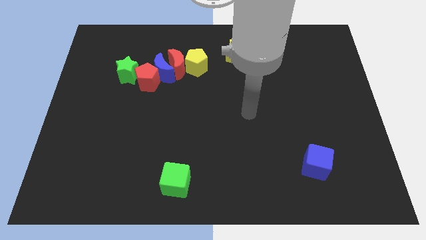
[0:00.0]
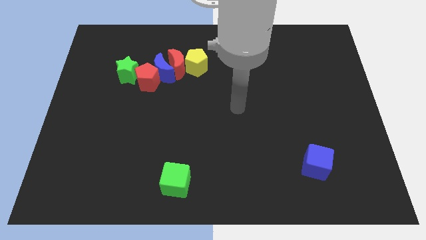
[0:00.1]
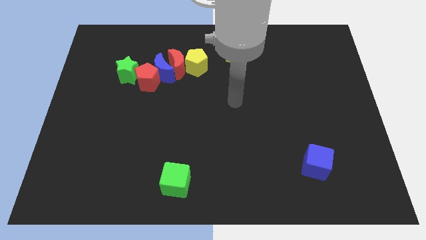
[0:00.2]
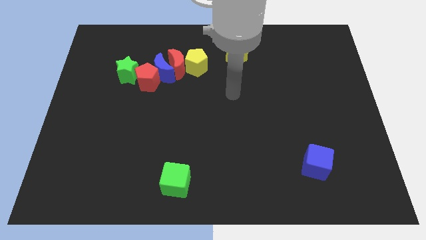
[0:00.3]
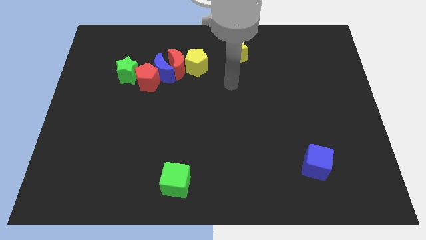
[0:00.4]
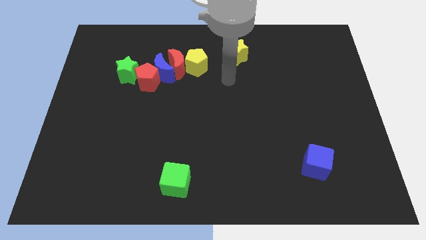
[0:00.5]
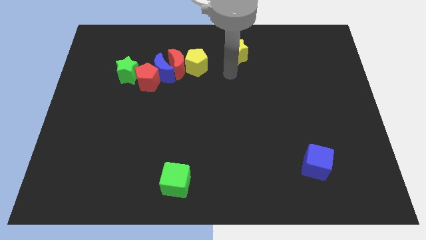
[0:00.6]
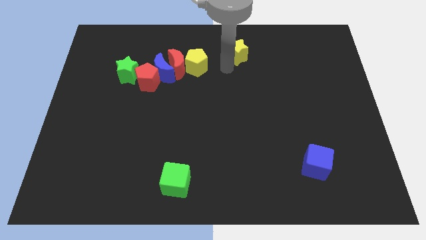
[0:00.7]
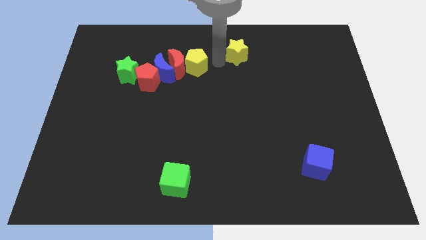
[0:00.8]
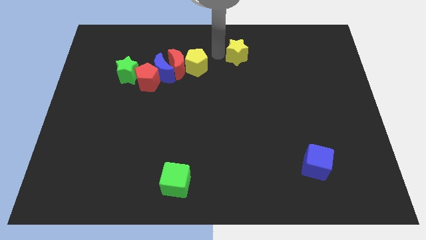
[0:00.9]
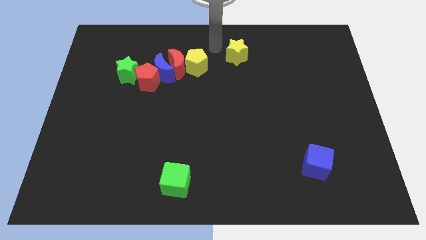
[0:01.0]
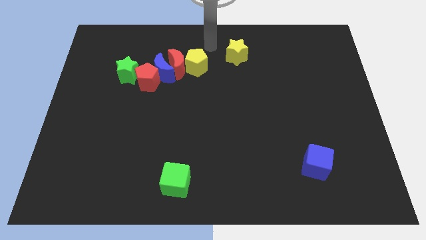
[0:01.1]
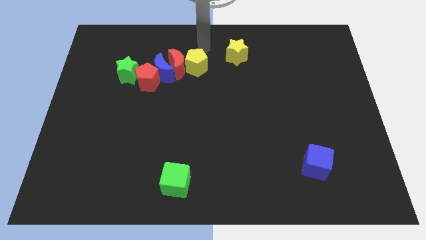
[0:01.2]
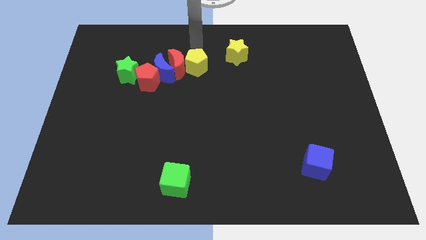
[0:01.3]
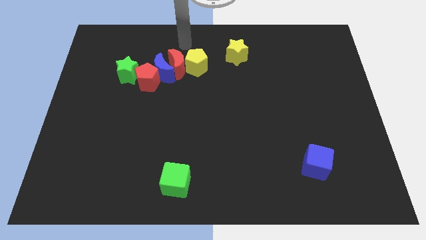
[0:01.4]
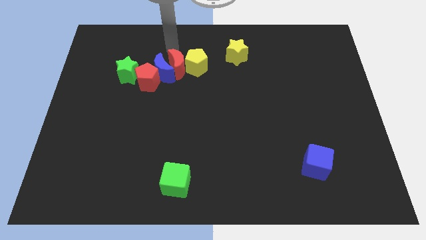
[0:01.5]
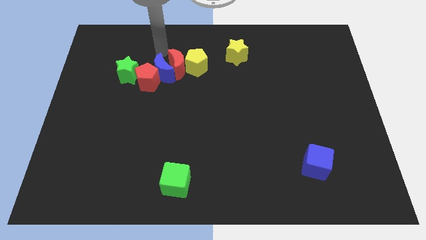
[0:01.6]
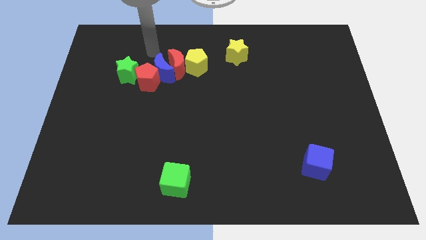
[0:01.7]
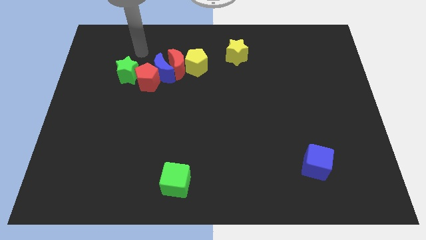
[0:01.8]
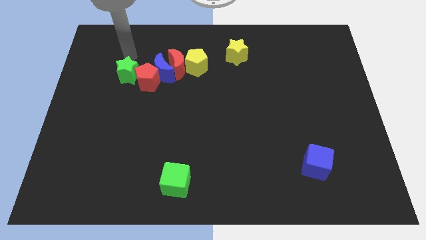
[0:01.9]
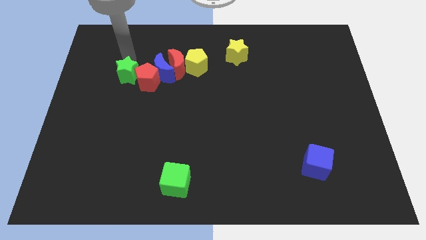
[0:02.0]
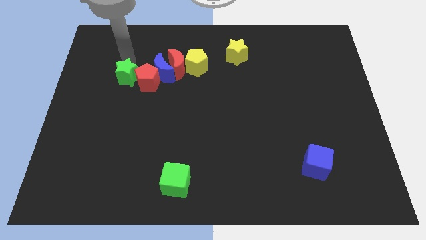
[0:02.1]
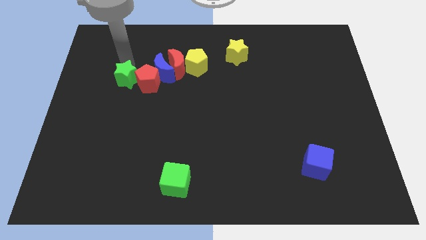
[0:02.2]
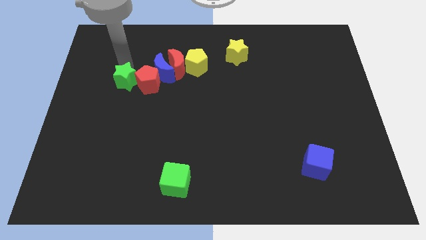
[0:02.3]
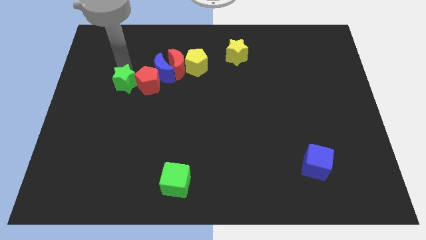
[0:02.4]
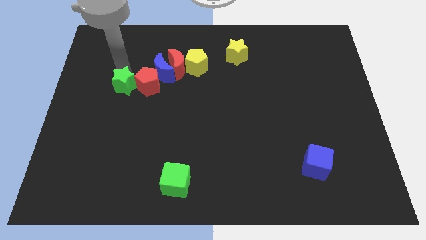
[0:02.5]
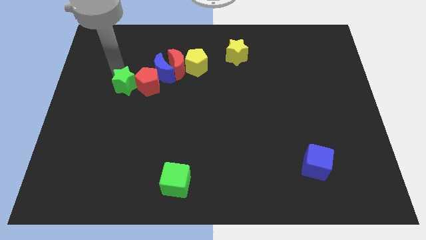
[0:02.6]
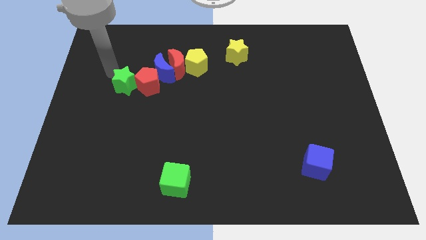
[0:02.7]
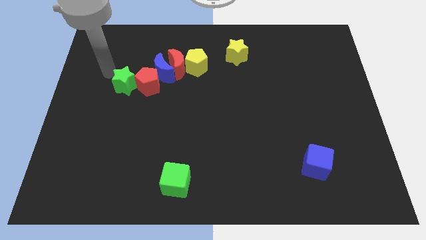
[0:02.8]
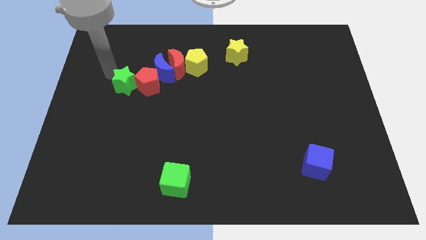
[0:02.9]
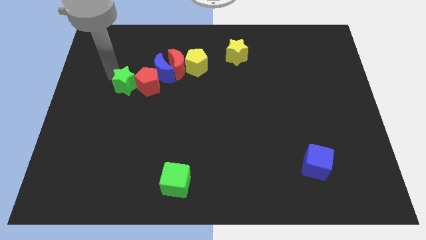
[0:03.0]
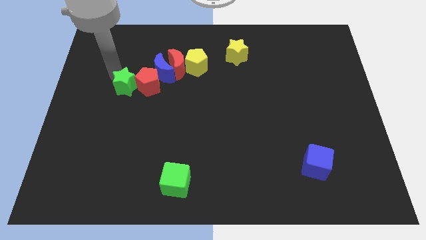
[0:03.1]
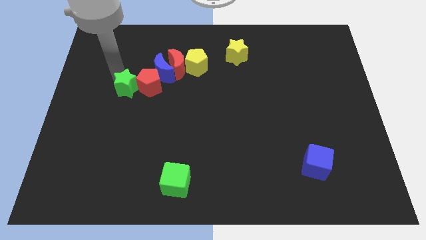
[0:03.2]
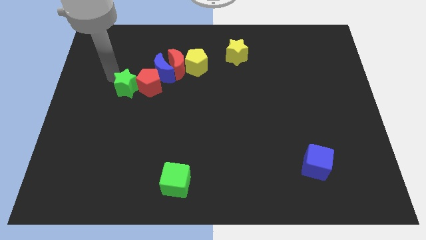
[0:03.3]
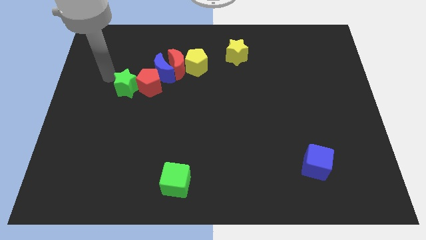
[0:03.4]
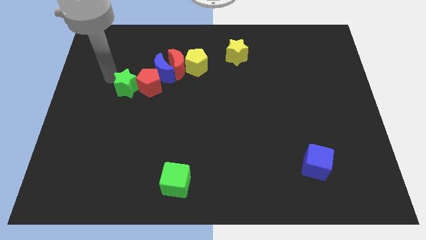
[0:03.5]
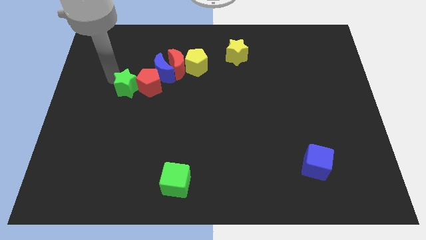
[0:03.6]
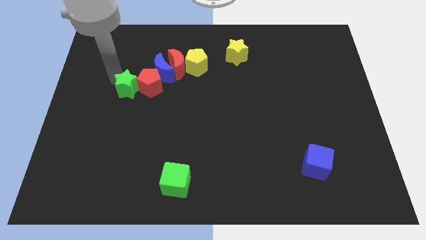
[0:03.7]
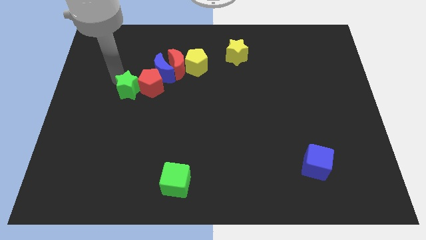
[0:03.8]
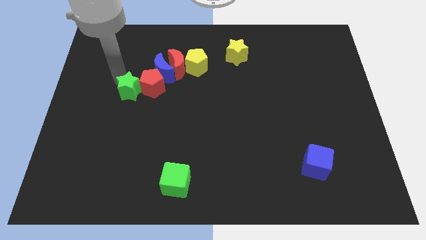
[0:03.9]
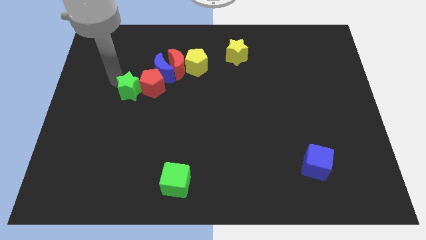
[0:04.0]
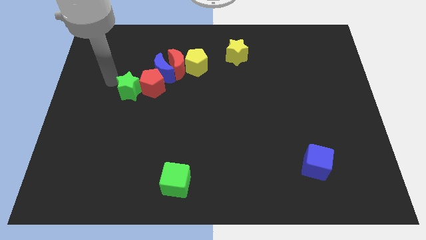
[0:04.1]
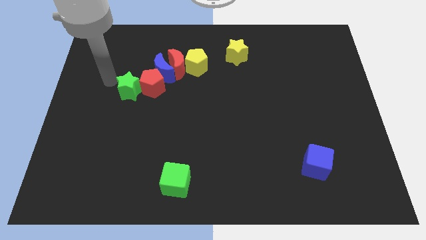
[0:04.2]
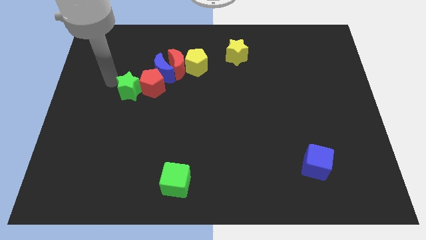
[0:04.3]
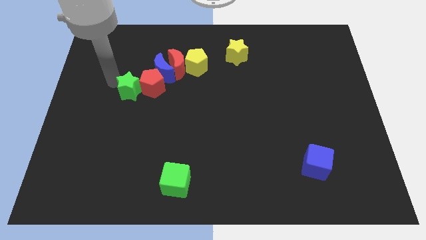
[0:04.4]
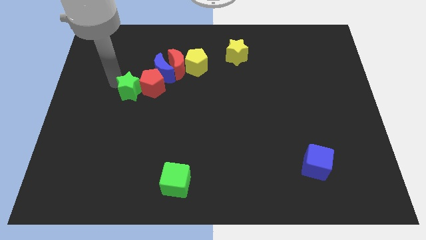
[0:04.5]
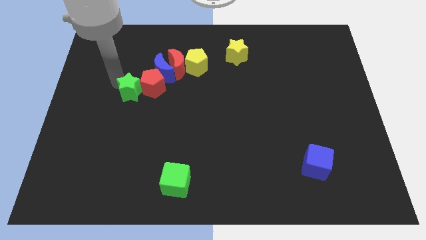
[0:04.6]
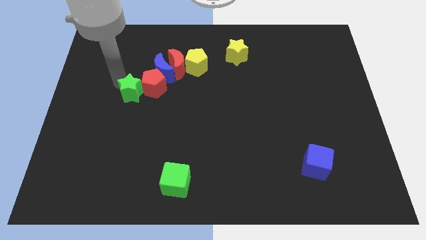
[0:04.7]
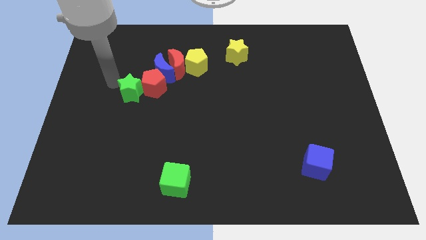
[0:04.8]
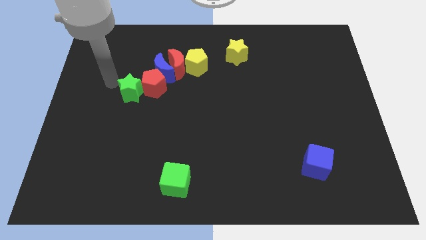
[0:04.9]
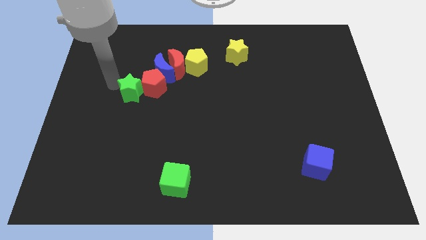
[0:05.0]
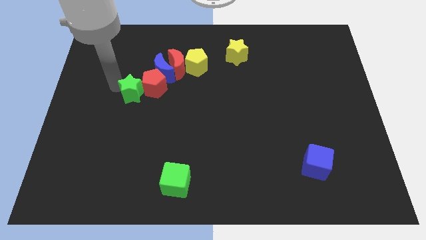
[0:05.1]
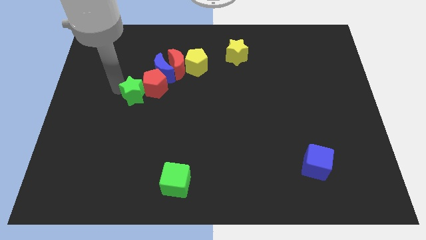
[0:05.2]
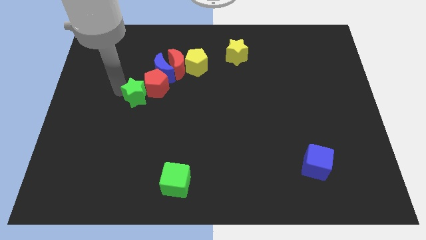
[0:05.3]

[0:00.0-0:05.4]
slightly push the green star diagonally down and right

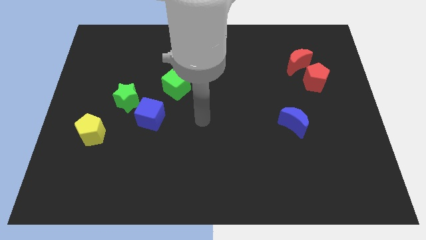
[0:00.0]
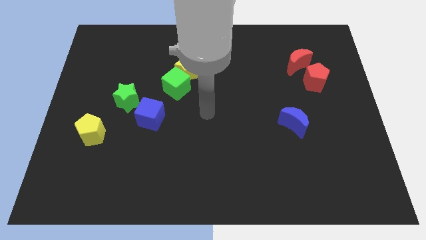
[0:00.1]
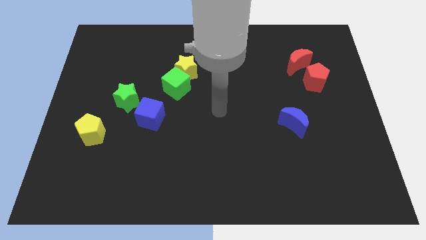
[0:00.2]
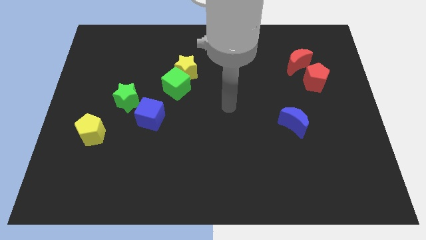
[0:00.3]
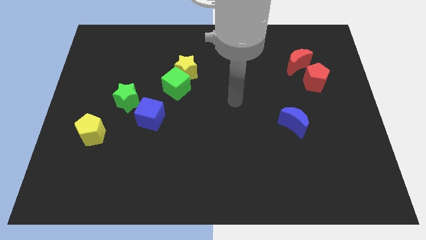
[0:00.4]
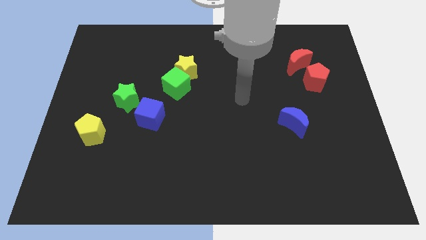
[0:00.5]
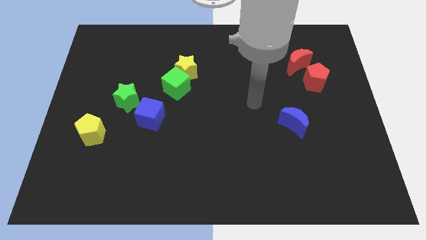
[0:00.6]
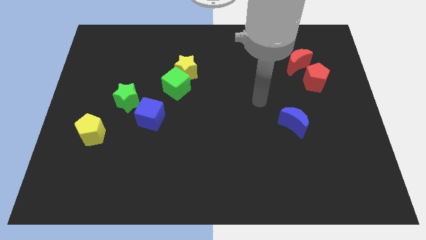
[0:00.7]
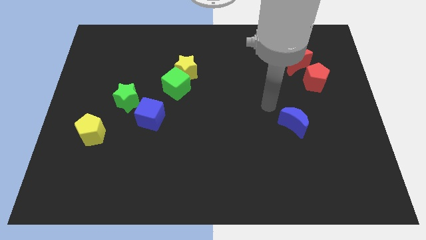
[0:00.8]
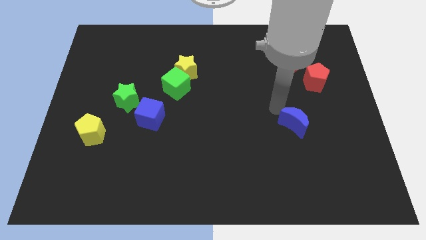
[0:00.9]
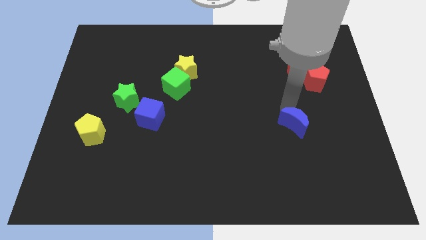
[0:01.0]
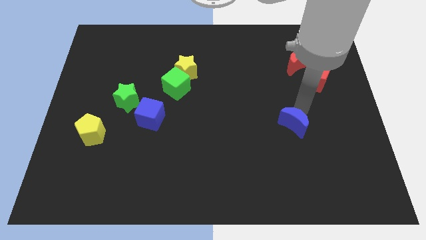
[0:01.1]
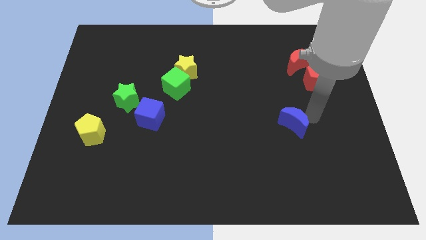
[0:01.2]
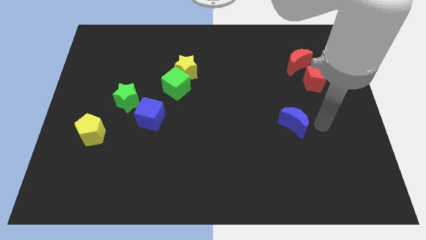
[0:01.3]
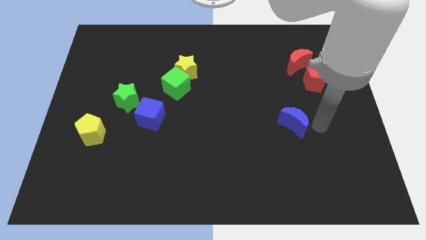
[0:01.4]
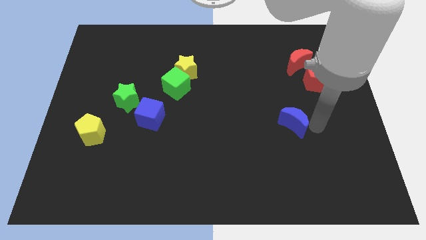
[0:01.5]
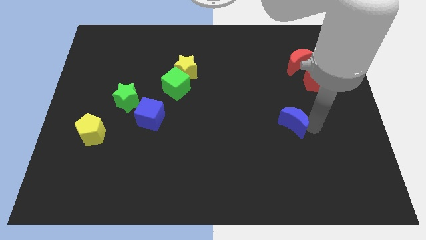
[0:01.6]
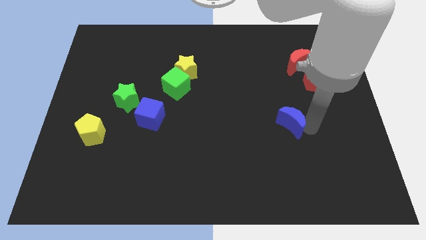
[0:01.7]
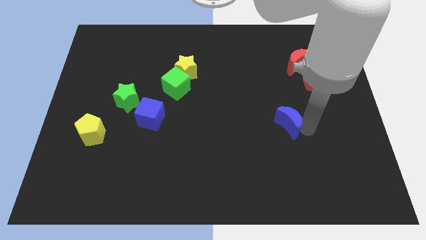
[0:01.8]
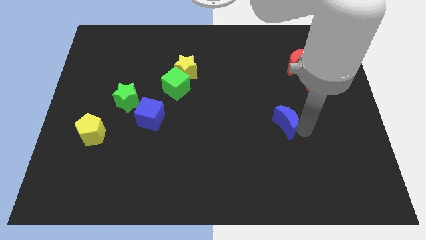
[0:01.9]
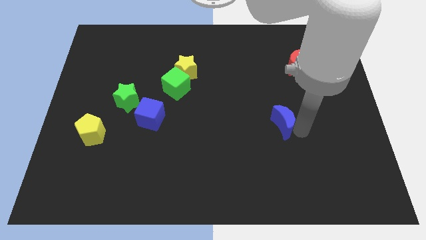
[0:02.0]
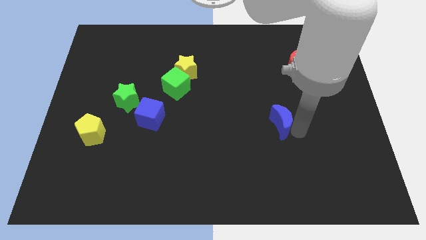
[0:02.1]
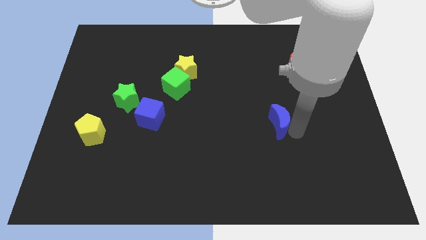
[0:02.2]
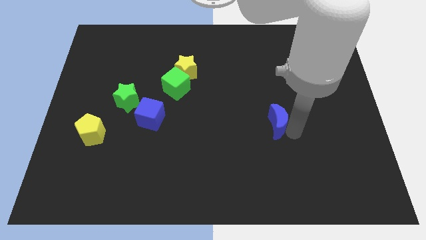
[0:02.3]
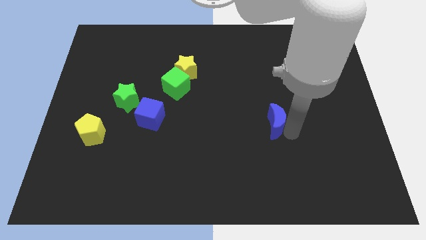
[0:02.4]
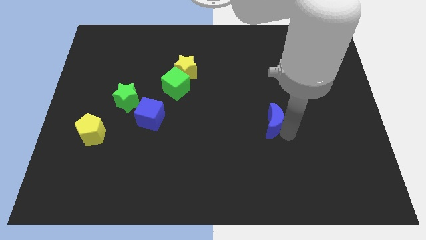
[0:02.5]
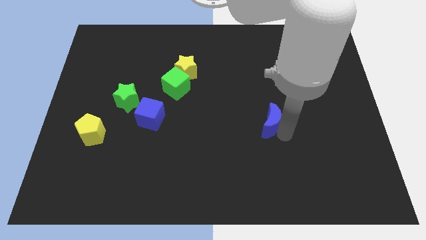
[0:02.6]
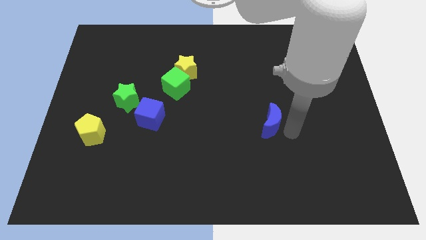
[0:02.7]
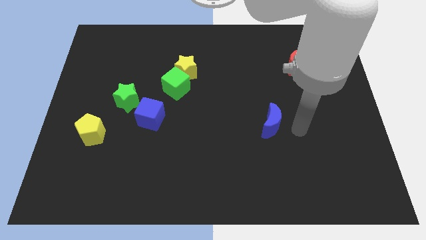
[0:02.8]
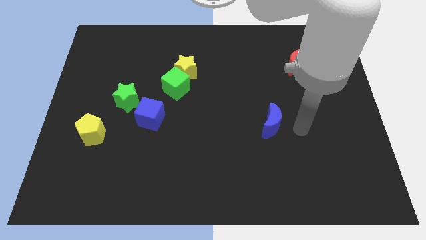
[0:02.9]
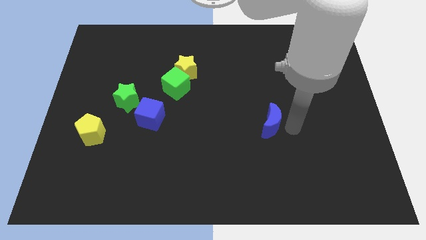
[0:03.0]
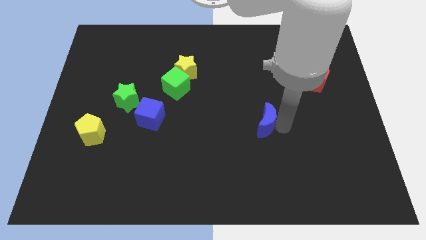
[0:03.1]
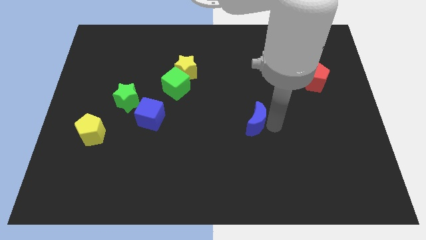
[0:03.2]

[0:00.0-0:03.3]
push the blue moon a little to the left
